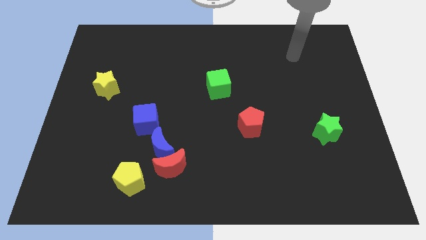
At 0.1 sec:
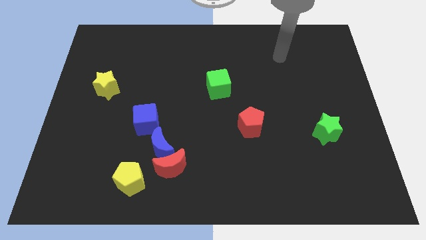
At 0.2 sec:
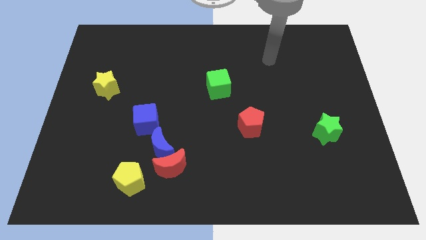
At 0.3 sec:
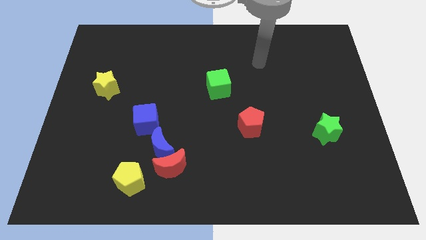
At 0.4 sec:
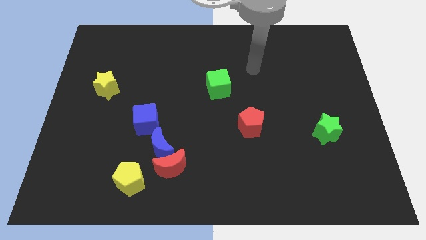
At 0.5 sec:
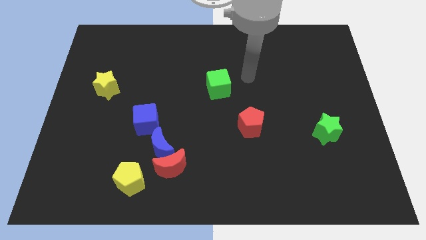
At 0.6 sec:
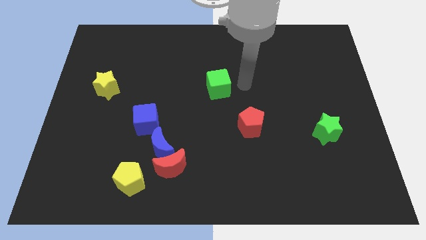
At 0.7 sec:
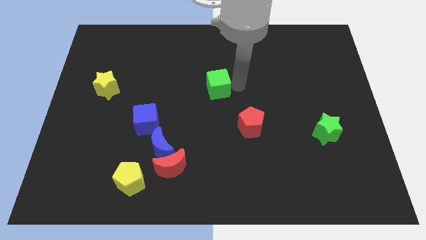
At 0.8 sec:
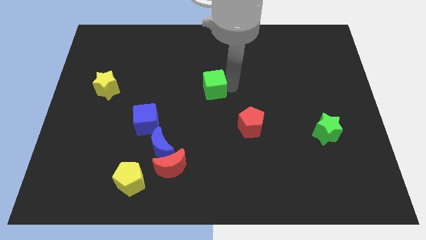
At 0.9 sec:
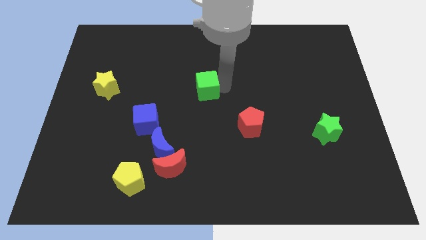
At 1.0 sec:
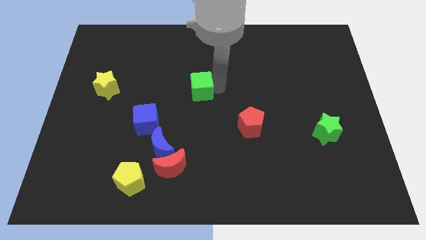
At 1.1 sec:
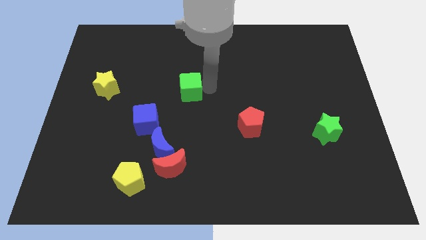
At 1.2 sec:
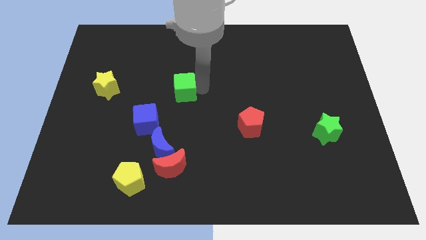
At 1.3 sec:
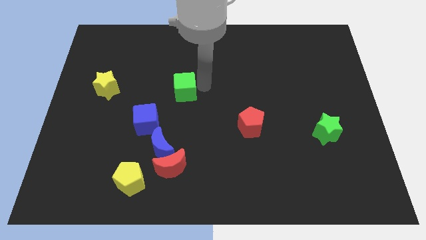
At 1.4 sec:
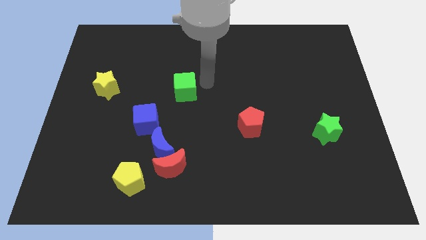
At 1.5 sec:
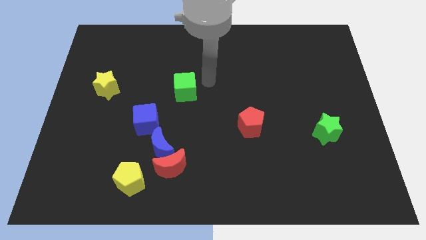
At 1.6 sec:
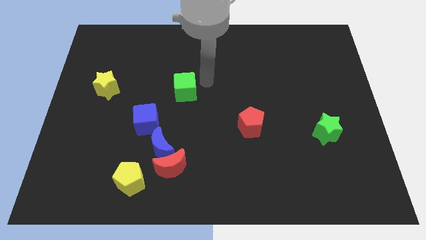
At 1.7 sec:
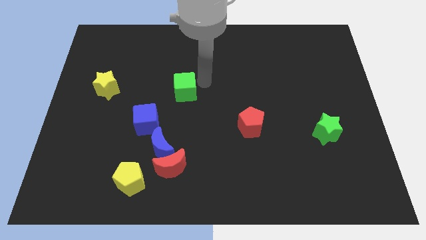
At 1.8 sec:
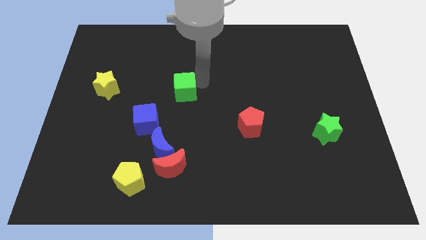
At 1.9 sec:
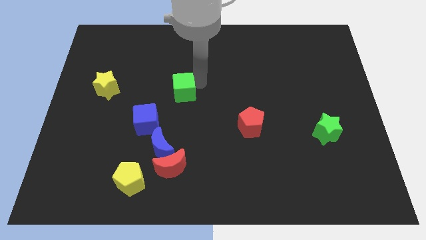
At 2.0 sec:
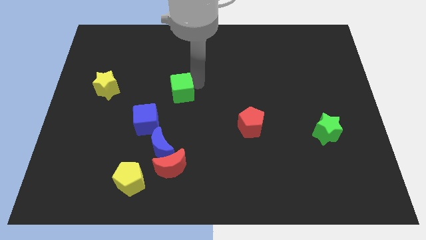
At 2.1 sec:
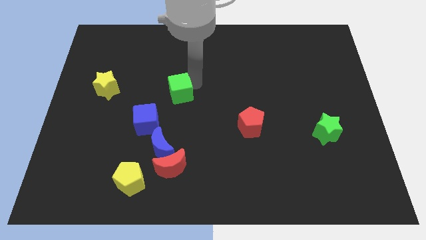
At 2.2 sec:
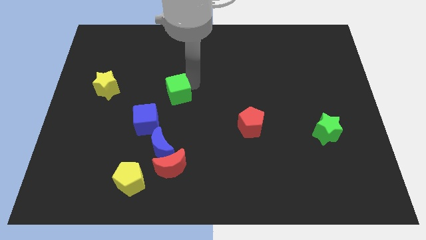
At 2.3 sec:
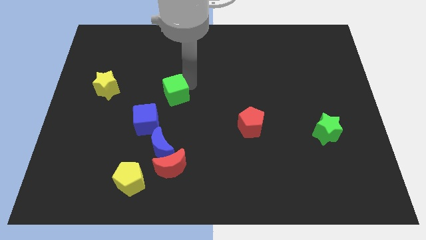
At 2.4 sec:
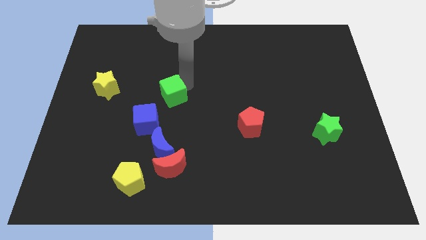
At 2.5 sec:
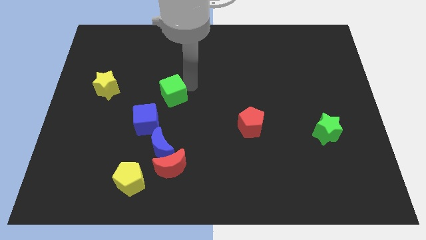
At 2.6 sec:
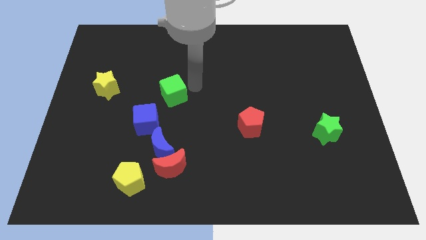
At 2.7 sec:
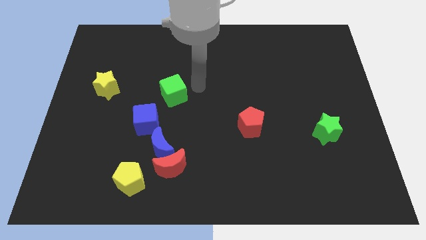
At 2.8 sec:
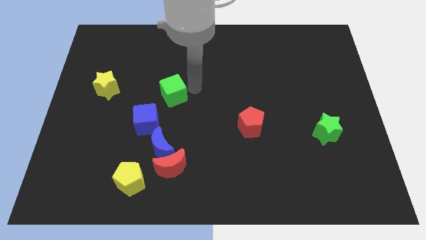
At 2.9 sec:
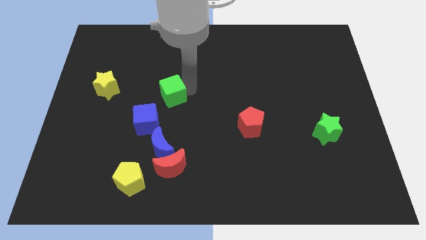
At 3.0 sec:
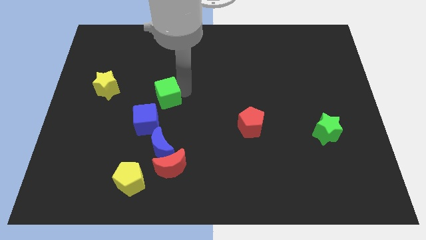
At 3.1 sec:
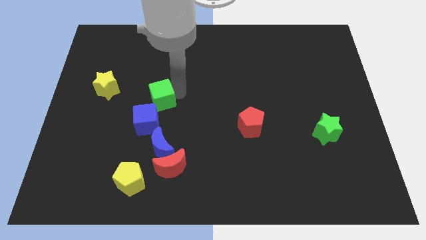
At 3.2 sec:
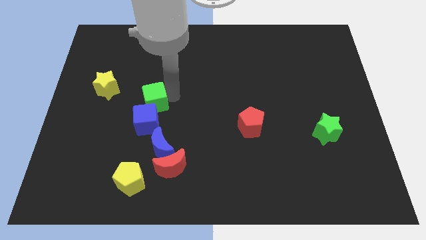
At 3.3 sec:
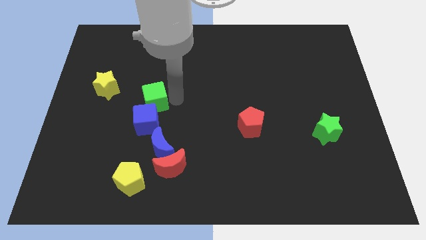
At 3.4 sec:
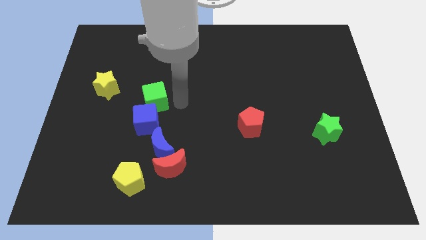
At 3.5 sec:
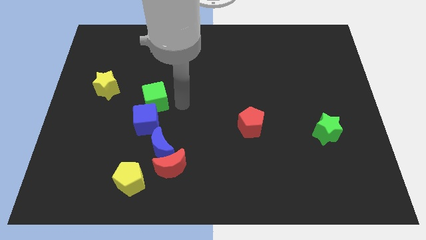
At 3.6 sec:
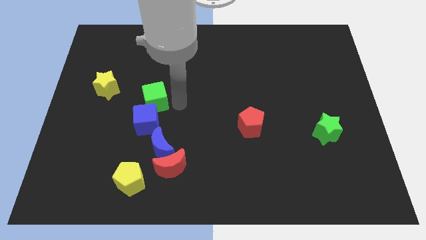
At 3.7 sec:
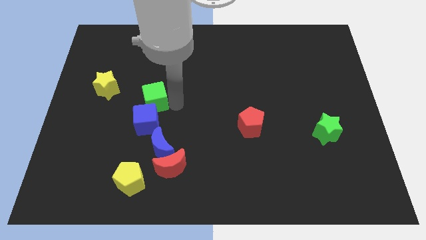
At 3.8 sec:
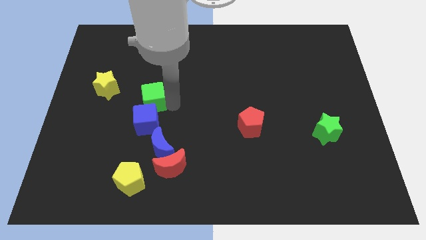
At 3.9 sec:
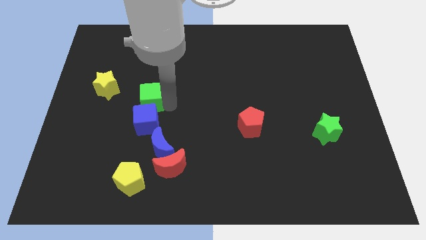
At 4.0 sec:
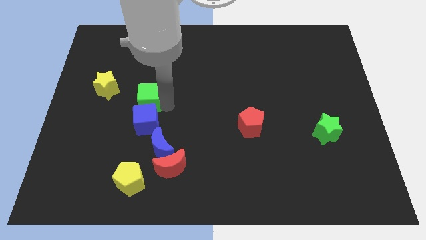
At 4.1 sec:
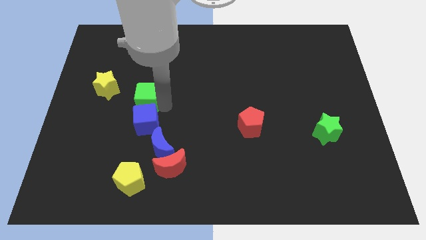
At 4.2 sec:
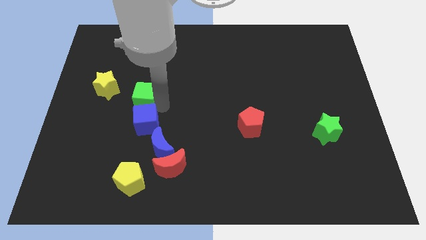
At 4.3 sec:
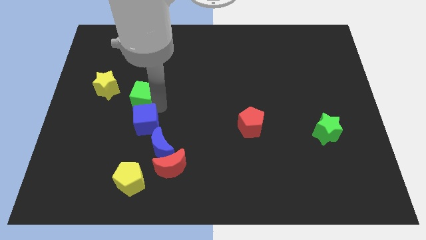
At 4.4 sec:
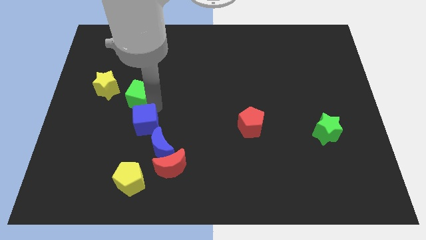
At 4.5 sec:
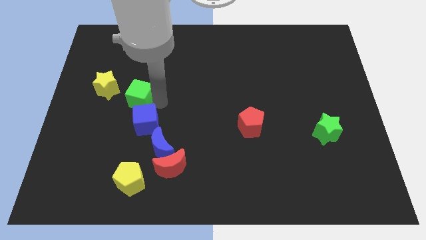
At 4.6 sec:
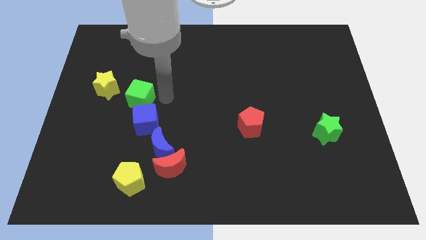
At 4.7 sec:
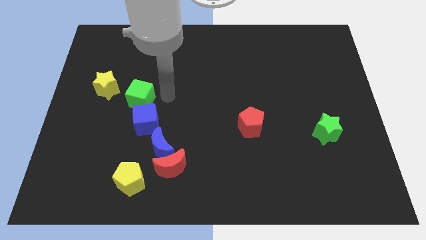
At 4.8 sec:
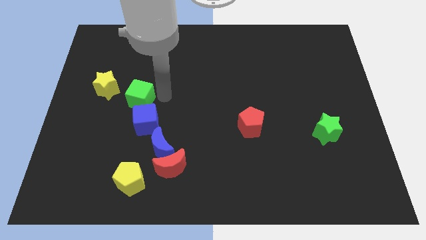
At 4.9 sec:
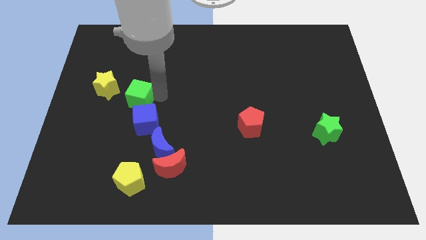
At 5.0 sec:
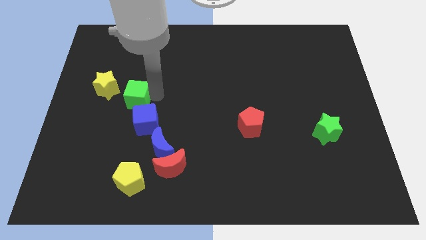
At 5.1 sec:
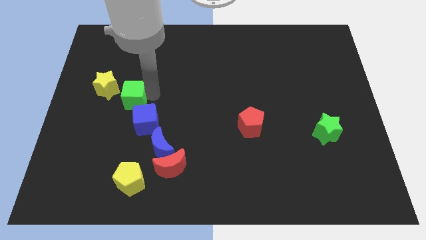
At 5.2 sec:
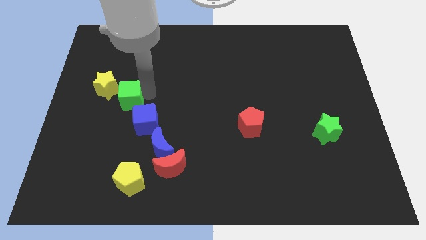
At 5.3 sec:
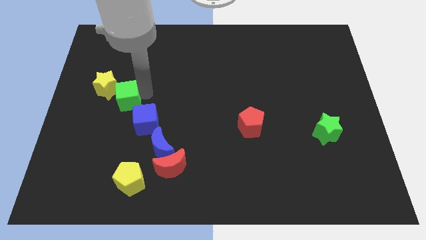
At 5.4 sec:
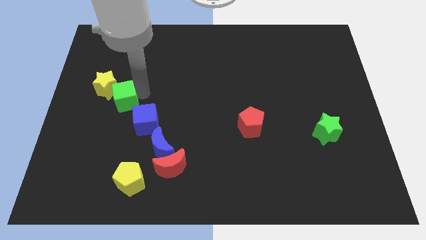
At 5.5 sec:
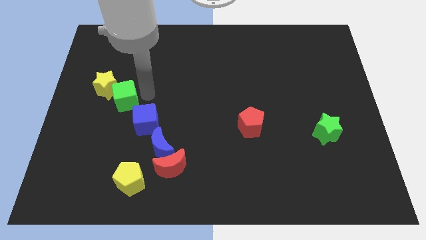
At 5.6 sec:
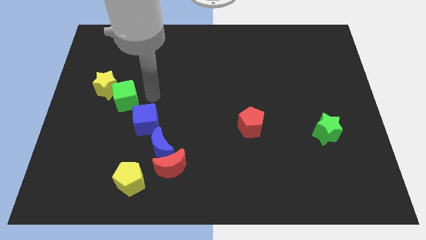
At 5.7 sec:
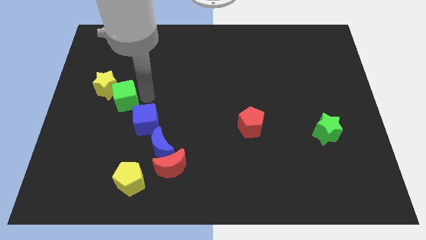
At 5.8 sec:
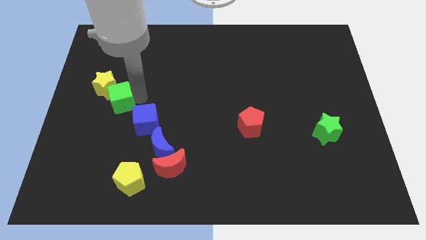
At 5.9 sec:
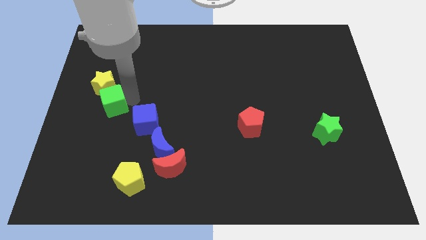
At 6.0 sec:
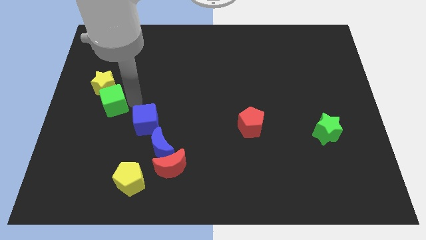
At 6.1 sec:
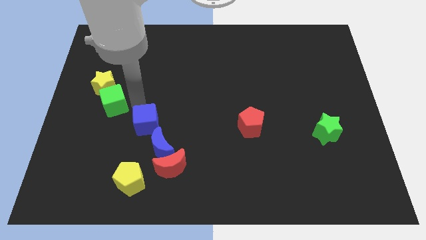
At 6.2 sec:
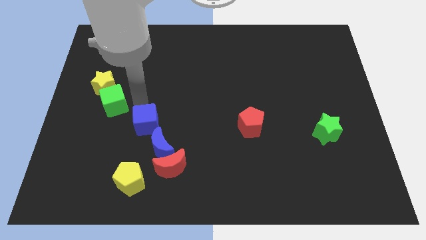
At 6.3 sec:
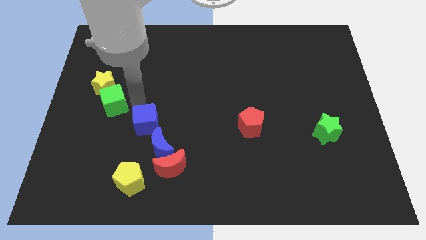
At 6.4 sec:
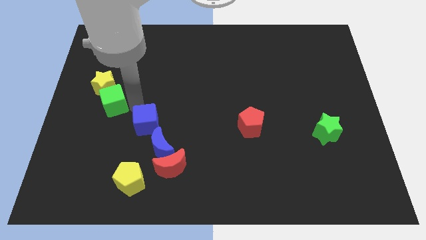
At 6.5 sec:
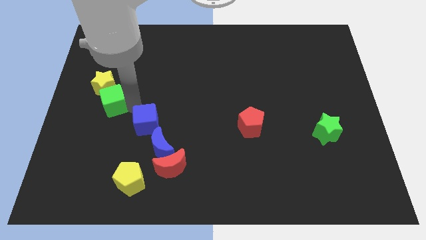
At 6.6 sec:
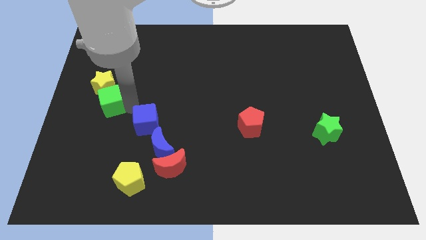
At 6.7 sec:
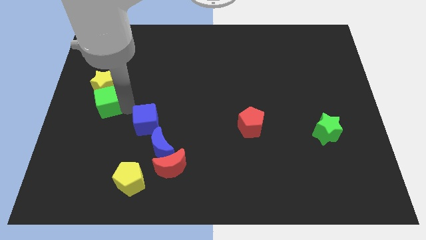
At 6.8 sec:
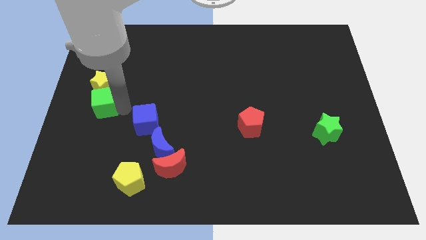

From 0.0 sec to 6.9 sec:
put the green cube to the left side
